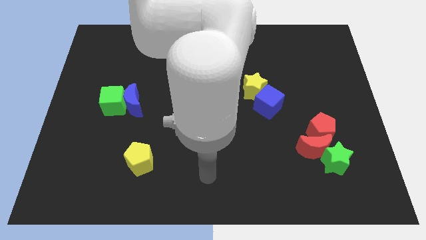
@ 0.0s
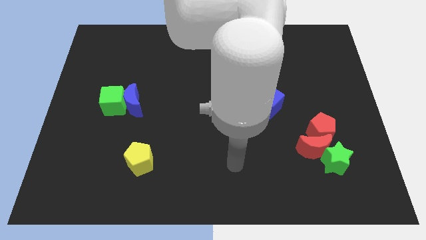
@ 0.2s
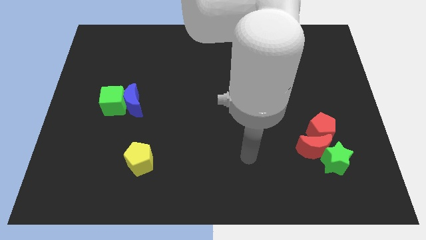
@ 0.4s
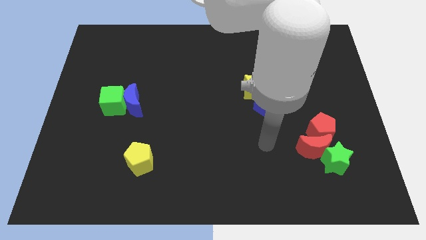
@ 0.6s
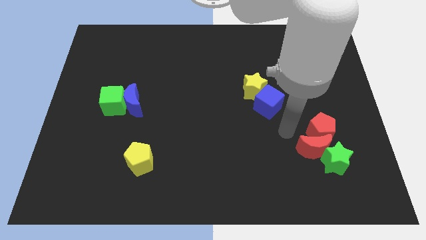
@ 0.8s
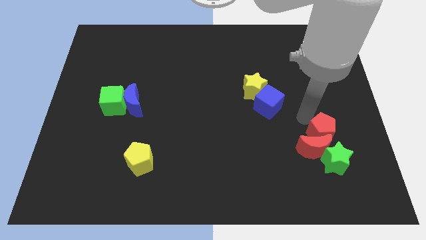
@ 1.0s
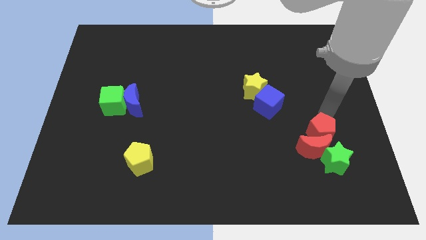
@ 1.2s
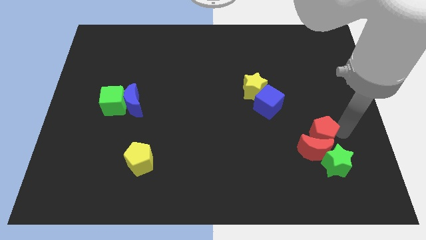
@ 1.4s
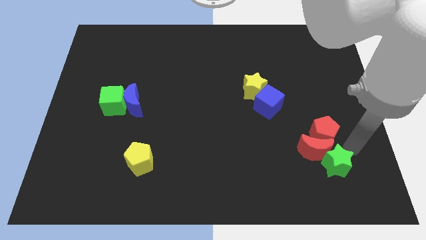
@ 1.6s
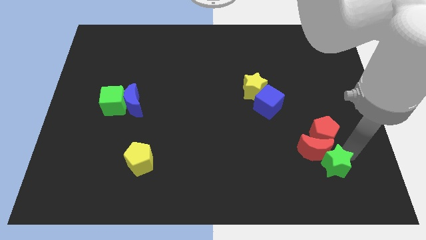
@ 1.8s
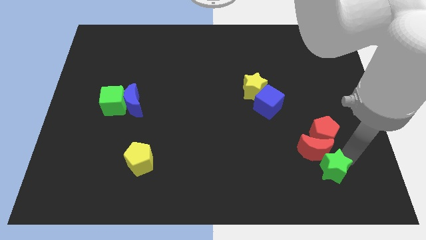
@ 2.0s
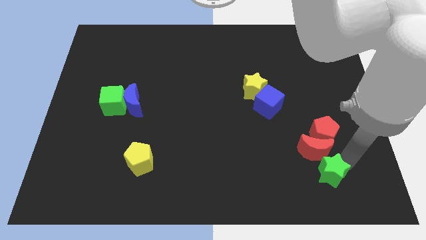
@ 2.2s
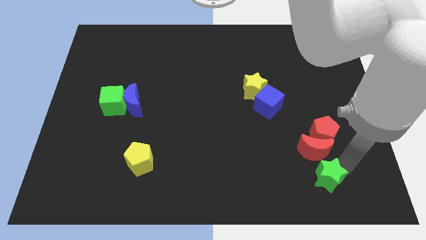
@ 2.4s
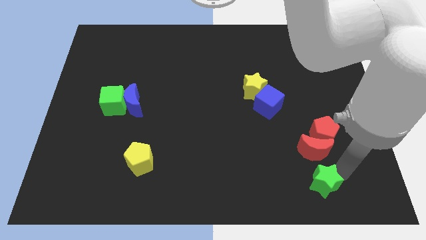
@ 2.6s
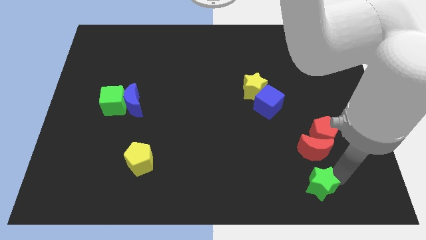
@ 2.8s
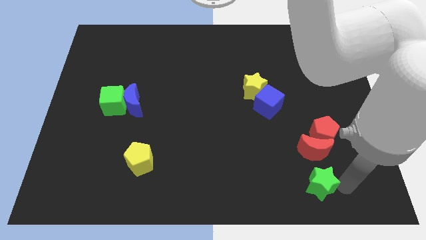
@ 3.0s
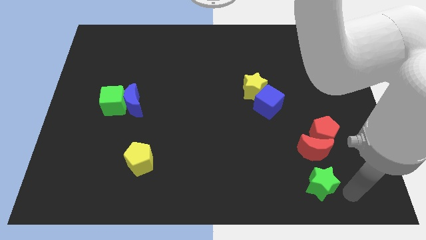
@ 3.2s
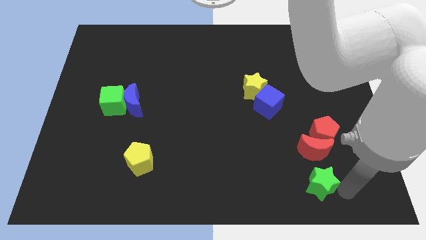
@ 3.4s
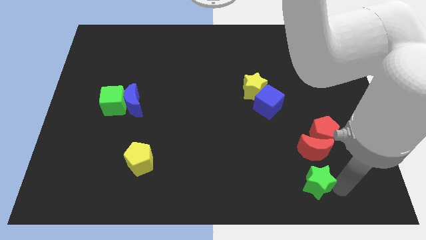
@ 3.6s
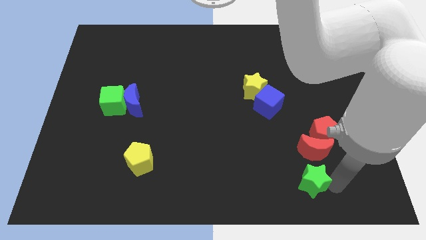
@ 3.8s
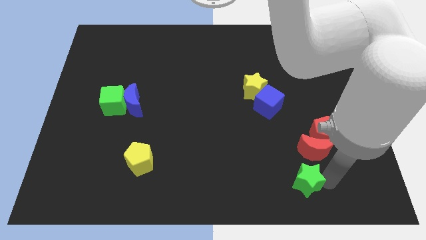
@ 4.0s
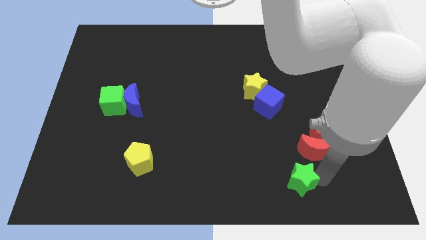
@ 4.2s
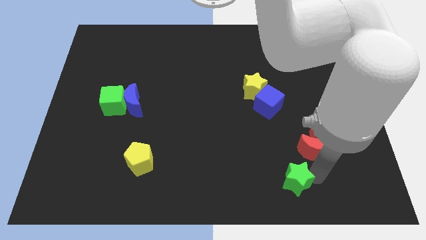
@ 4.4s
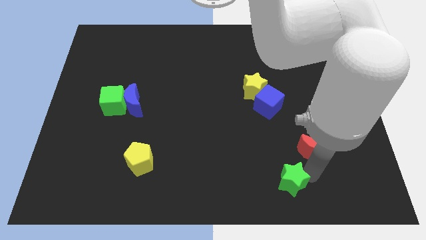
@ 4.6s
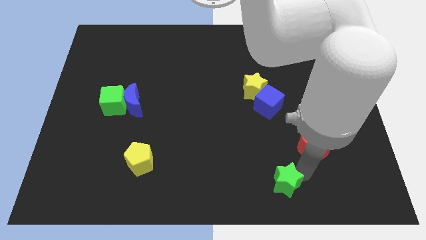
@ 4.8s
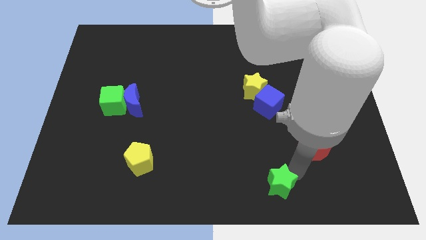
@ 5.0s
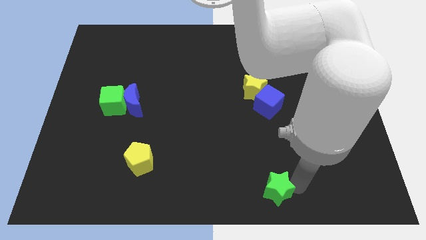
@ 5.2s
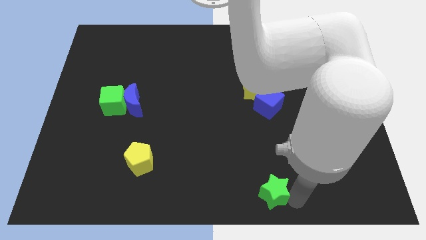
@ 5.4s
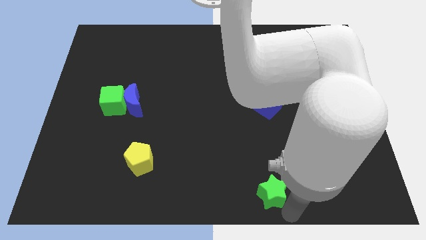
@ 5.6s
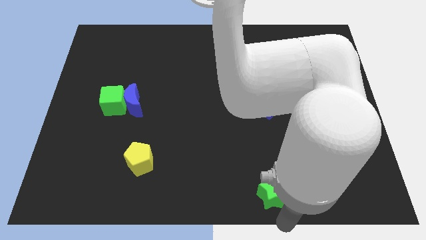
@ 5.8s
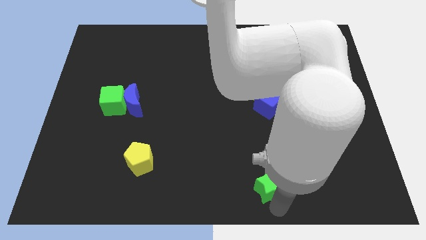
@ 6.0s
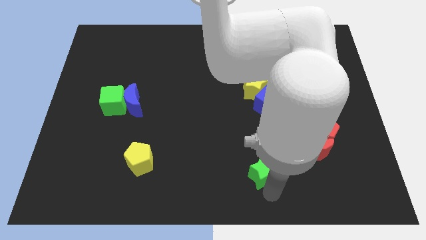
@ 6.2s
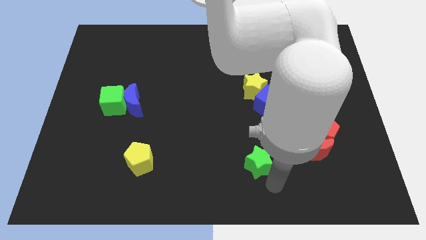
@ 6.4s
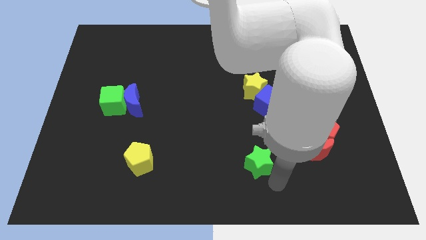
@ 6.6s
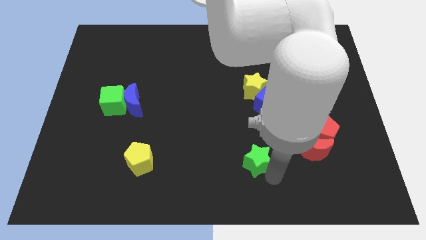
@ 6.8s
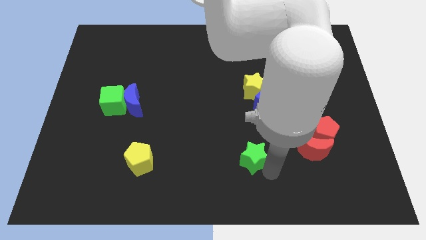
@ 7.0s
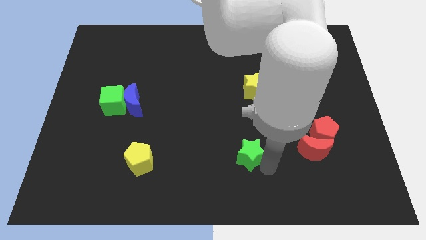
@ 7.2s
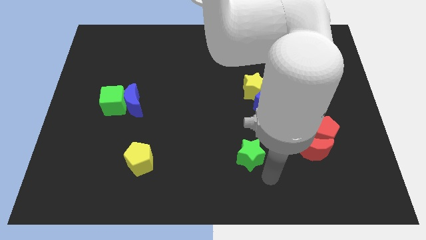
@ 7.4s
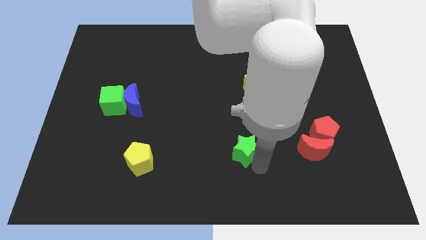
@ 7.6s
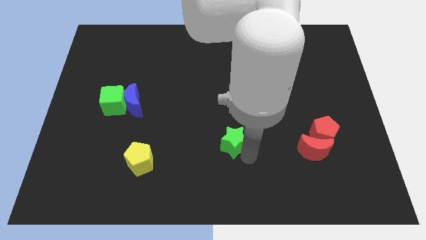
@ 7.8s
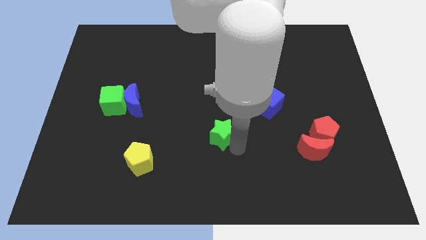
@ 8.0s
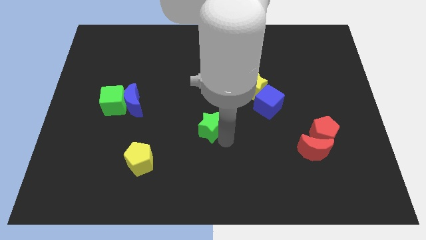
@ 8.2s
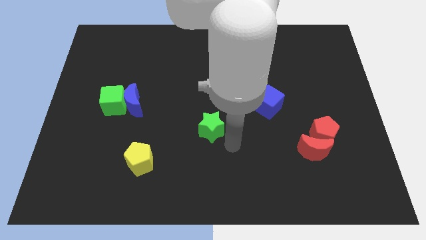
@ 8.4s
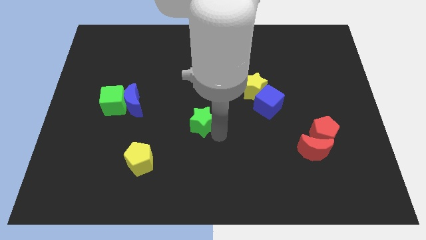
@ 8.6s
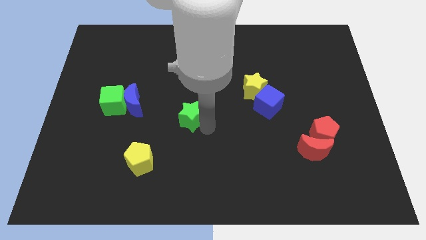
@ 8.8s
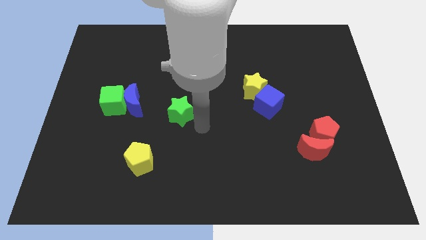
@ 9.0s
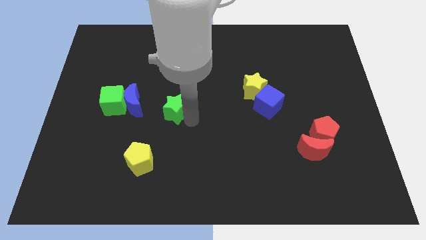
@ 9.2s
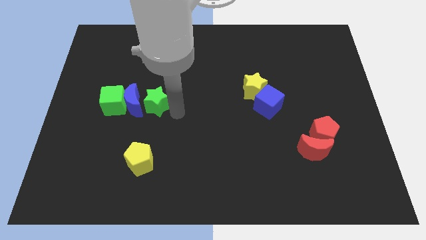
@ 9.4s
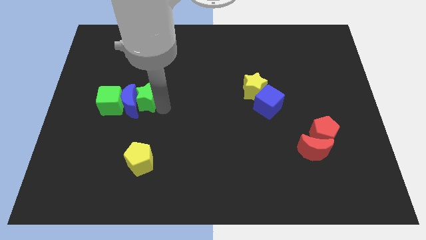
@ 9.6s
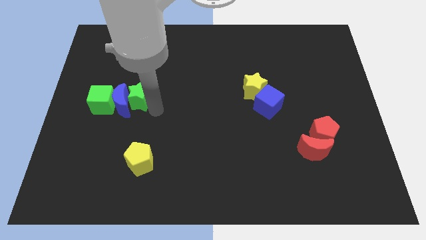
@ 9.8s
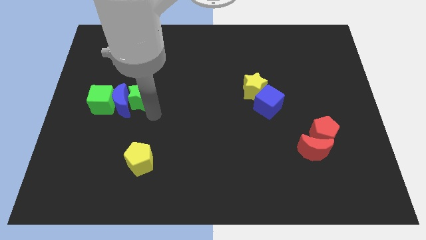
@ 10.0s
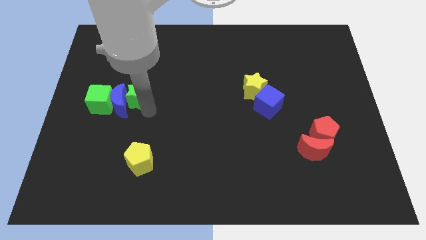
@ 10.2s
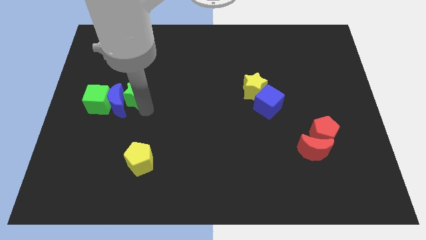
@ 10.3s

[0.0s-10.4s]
slide the green star to the top right of the green cube

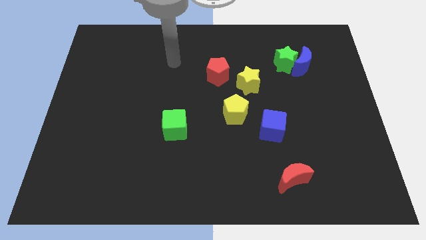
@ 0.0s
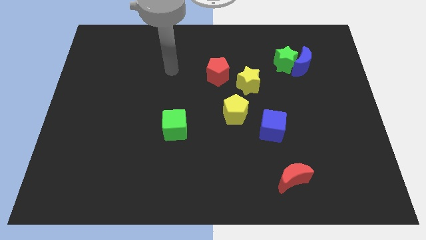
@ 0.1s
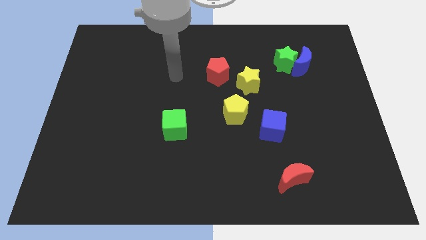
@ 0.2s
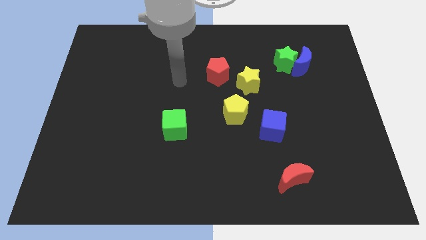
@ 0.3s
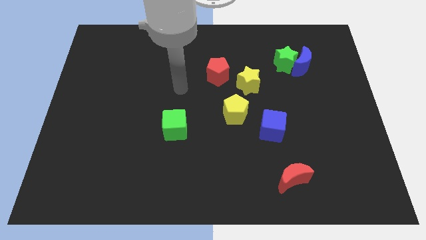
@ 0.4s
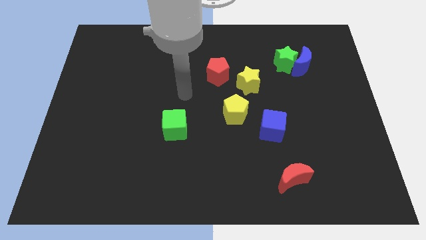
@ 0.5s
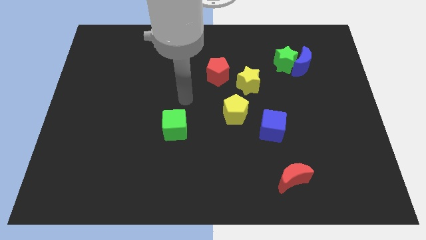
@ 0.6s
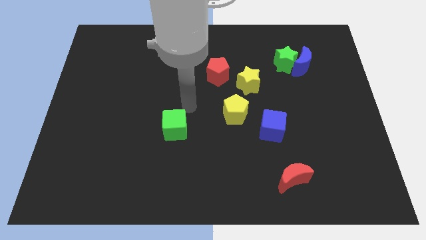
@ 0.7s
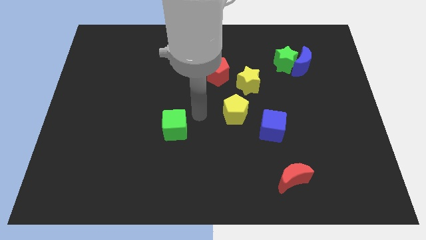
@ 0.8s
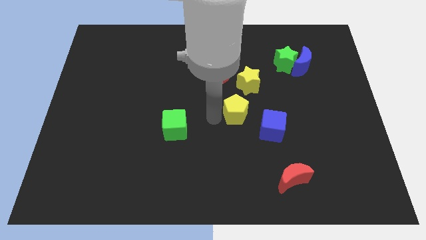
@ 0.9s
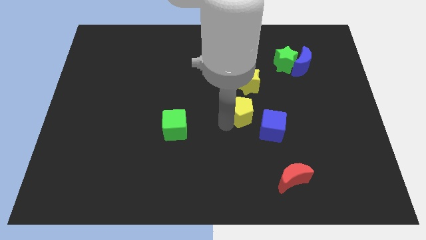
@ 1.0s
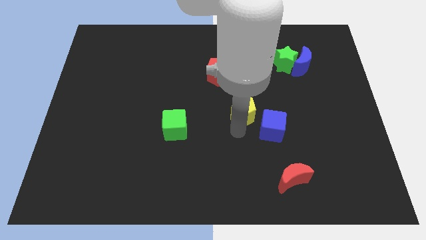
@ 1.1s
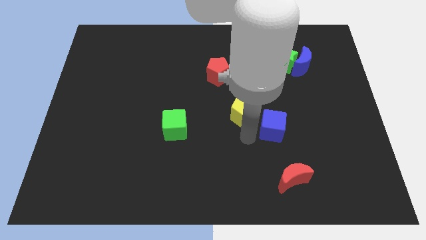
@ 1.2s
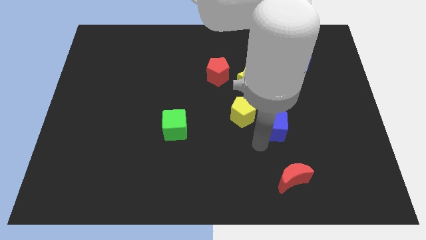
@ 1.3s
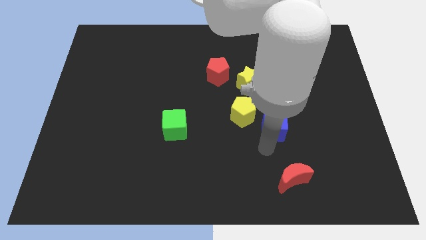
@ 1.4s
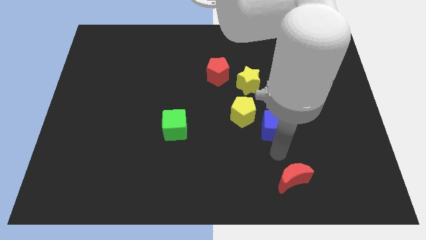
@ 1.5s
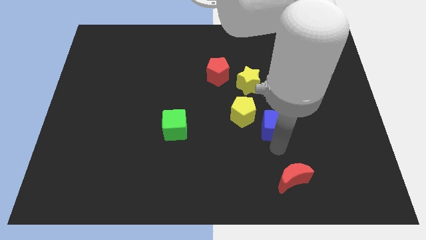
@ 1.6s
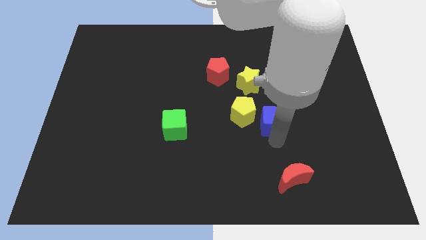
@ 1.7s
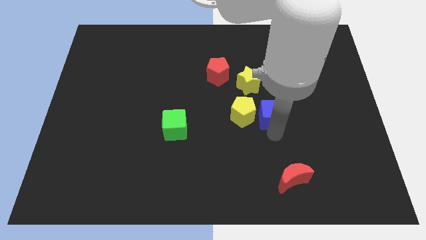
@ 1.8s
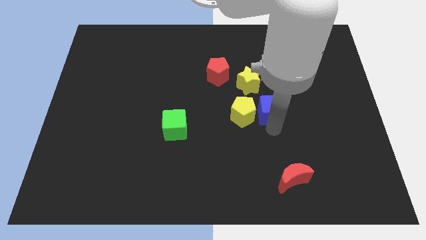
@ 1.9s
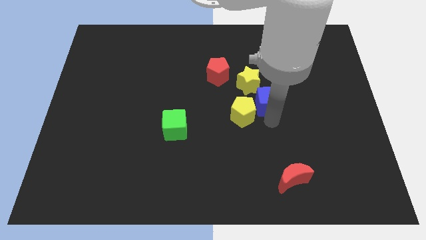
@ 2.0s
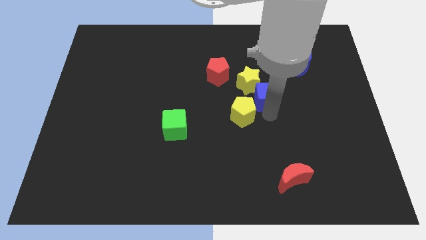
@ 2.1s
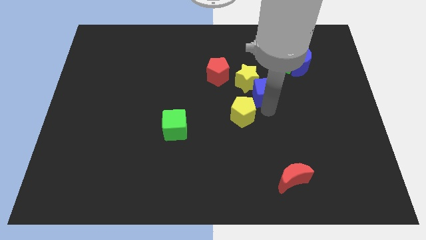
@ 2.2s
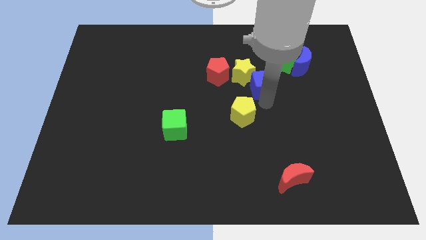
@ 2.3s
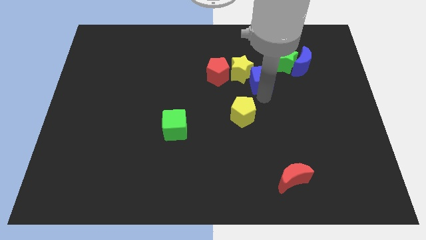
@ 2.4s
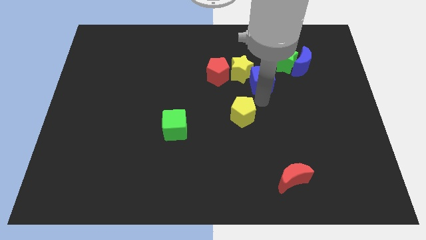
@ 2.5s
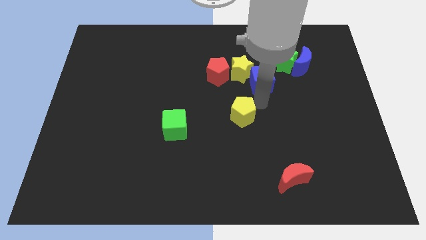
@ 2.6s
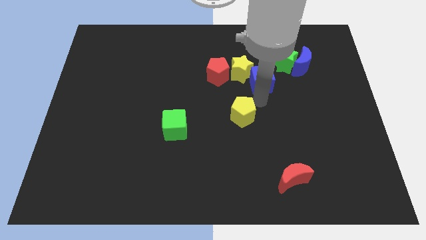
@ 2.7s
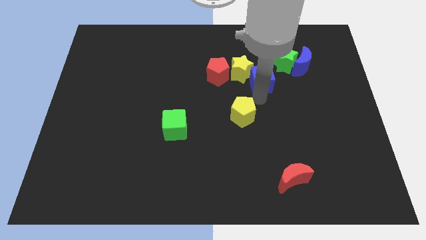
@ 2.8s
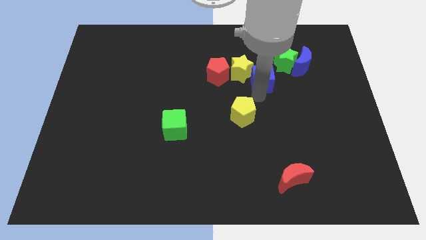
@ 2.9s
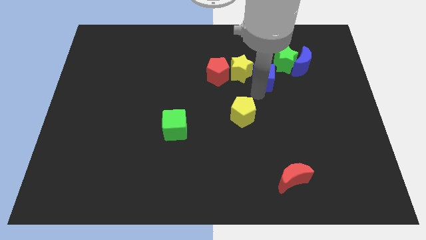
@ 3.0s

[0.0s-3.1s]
put the blue cube to the left side of the blue moon
